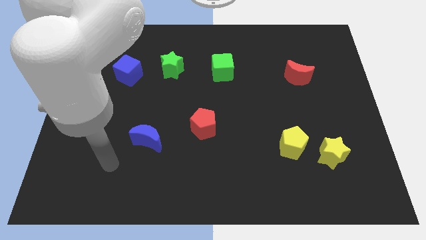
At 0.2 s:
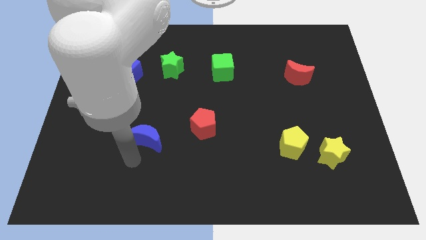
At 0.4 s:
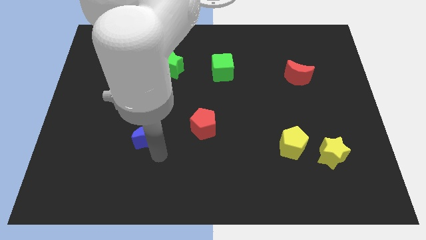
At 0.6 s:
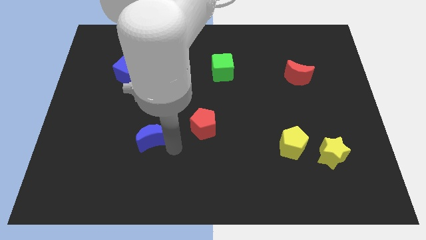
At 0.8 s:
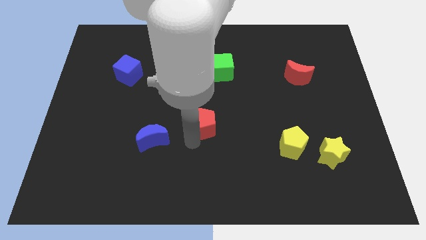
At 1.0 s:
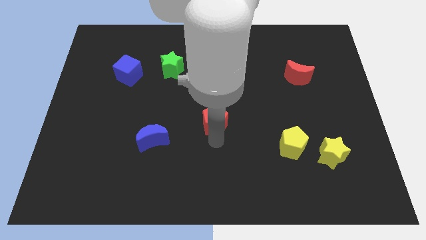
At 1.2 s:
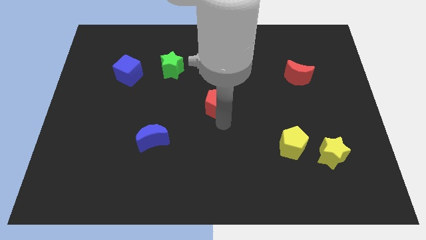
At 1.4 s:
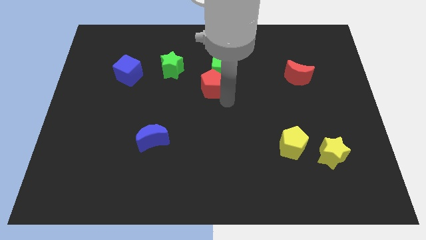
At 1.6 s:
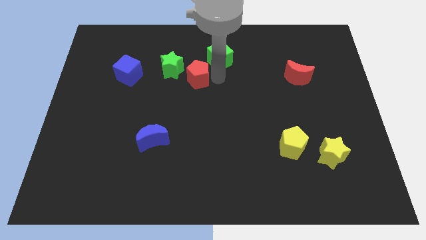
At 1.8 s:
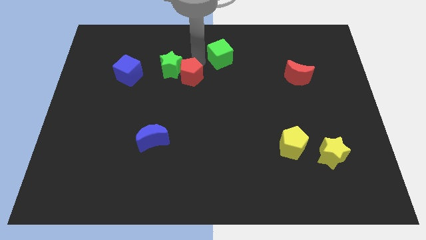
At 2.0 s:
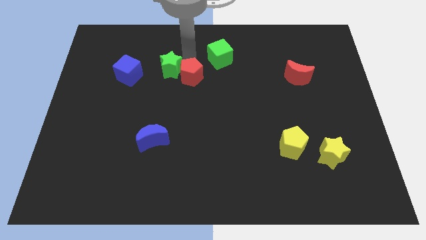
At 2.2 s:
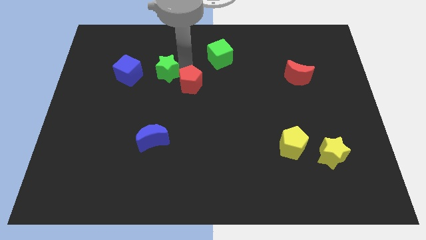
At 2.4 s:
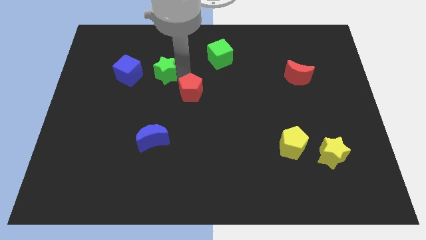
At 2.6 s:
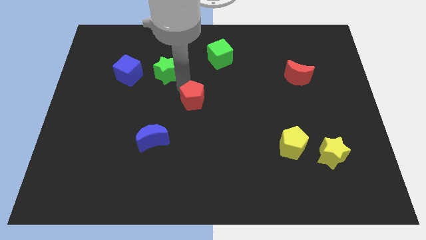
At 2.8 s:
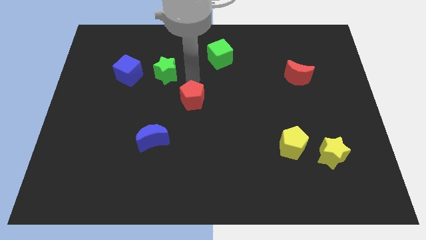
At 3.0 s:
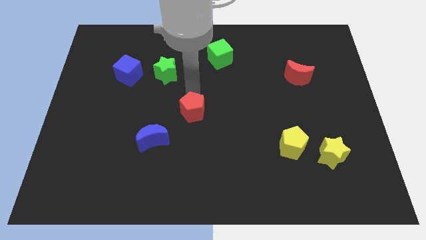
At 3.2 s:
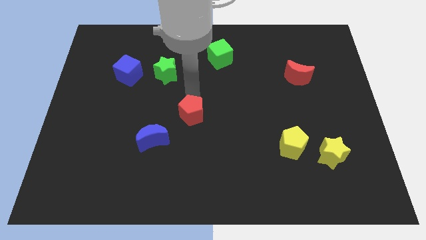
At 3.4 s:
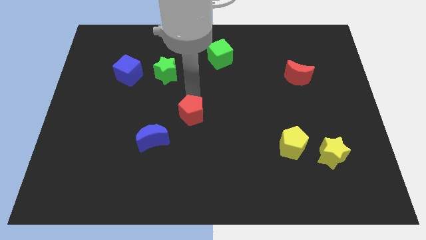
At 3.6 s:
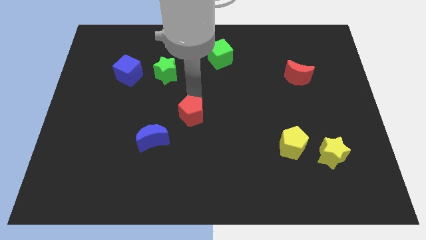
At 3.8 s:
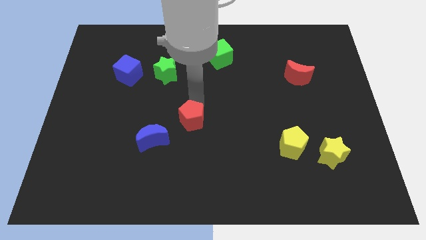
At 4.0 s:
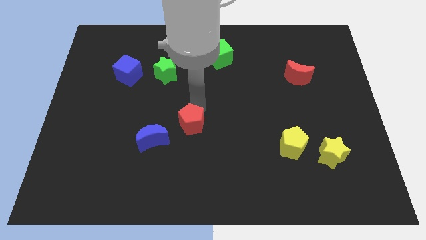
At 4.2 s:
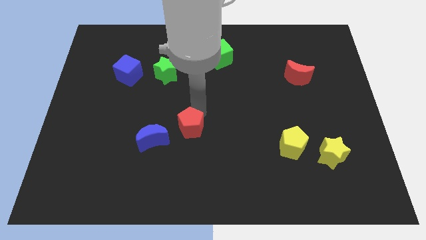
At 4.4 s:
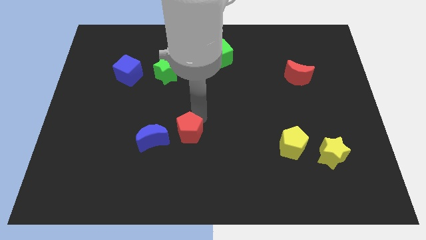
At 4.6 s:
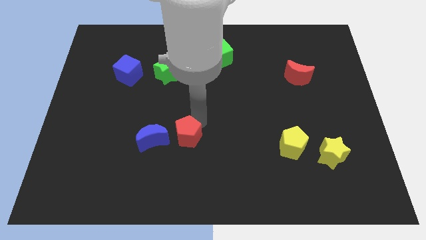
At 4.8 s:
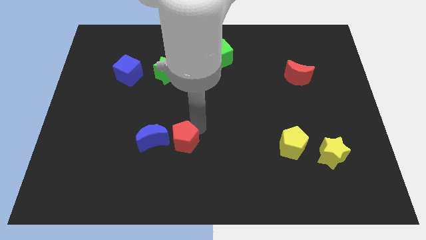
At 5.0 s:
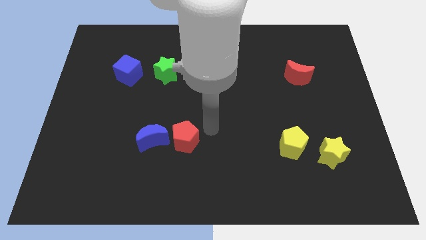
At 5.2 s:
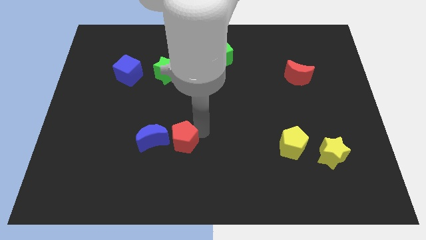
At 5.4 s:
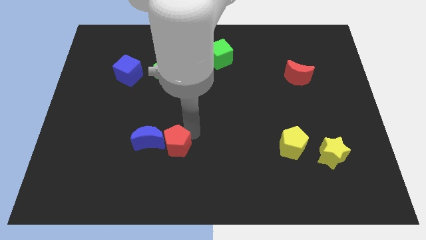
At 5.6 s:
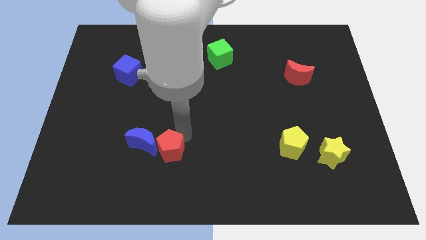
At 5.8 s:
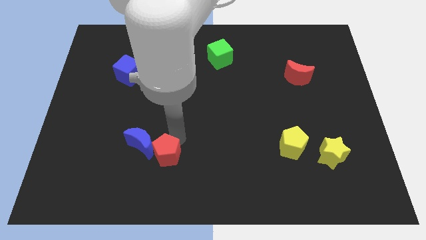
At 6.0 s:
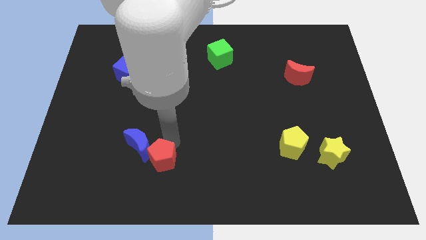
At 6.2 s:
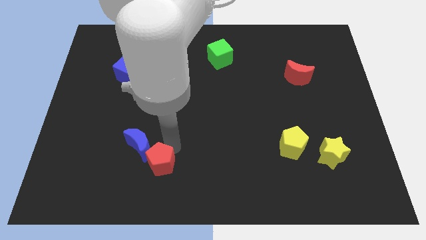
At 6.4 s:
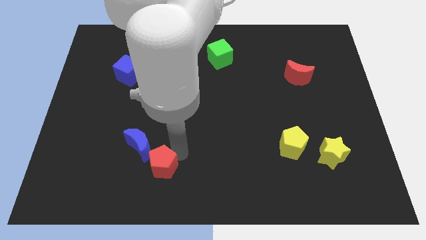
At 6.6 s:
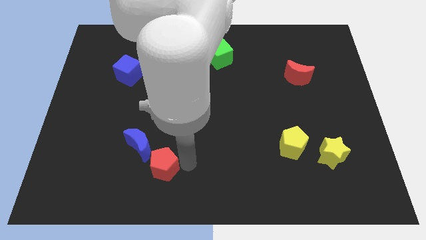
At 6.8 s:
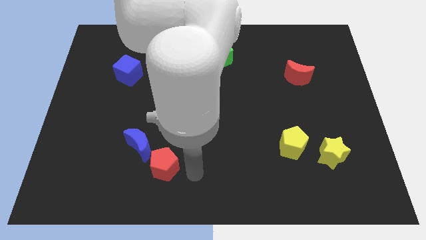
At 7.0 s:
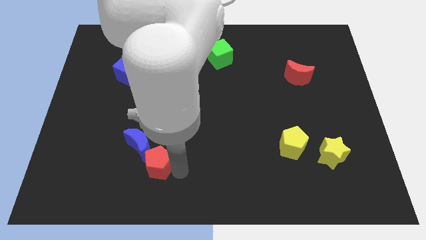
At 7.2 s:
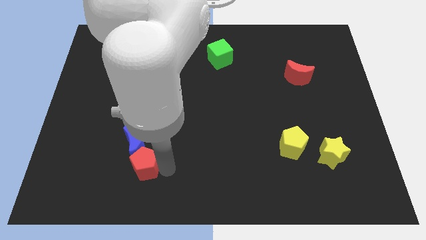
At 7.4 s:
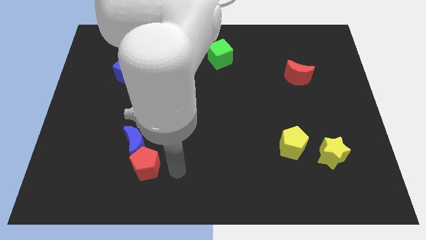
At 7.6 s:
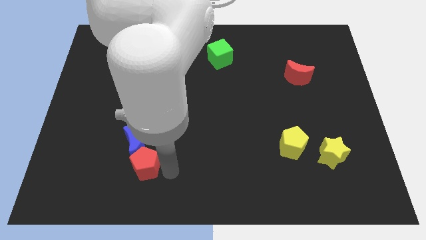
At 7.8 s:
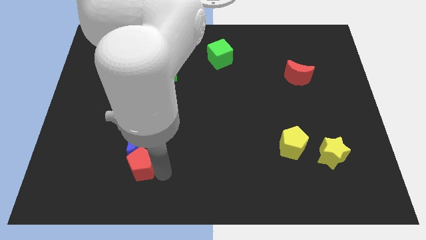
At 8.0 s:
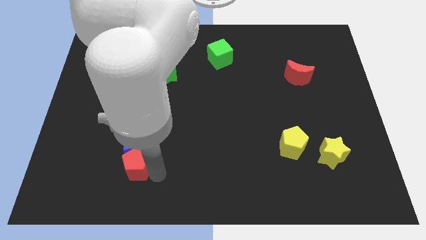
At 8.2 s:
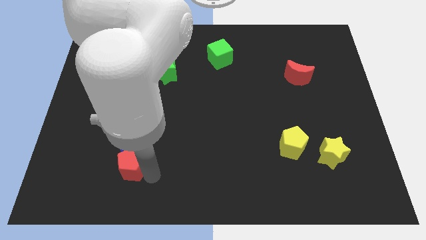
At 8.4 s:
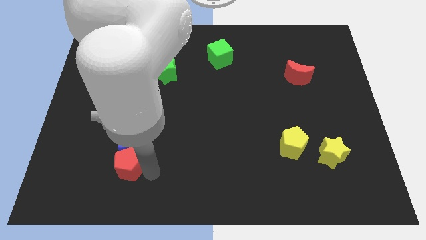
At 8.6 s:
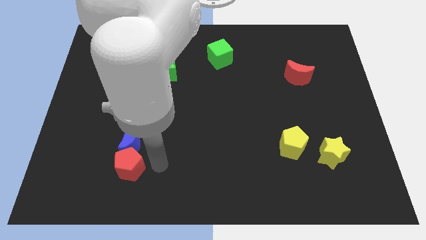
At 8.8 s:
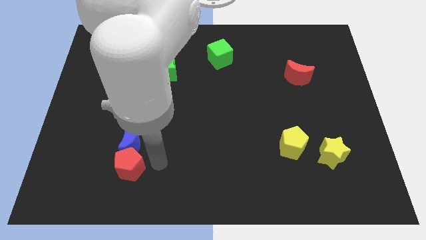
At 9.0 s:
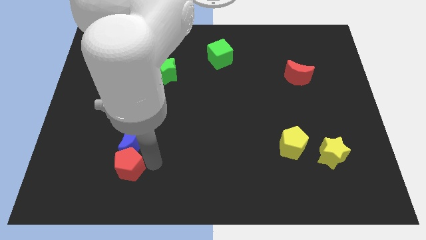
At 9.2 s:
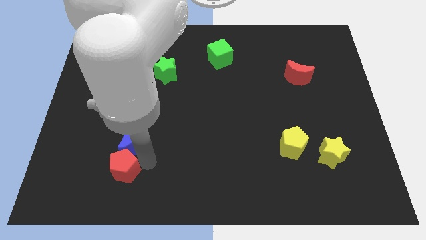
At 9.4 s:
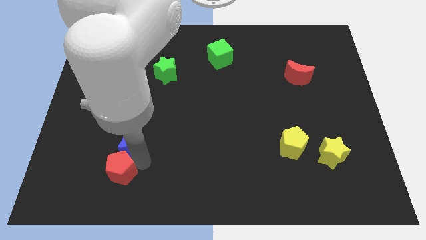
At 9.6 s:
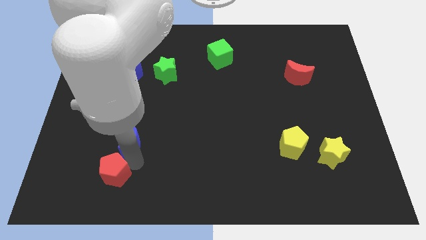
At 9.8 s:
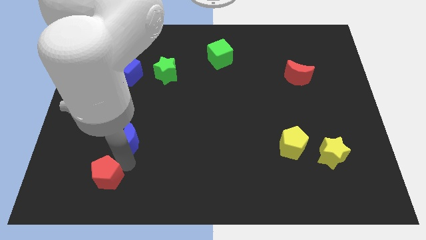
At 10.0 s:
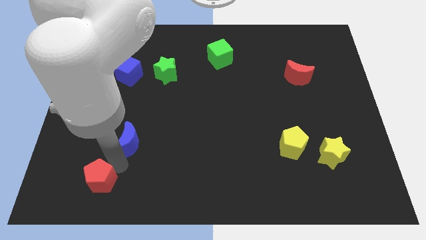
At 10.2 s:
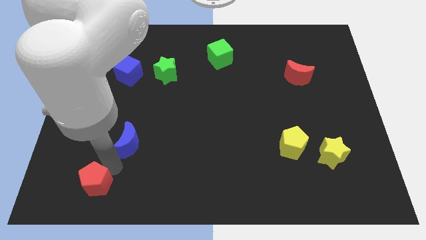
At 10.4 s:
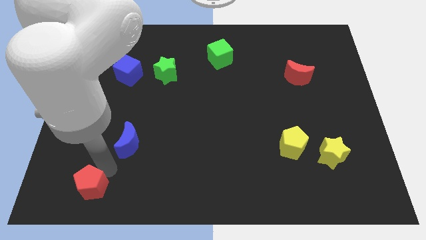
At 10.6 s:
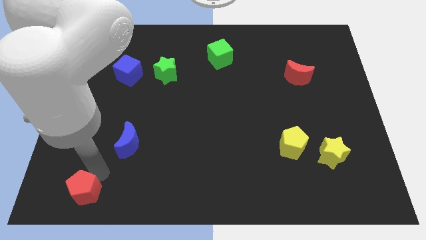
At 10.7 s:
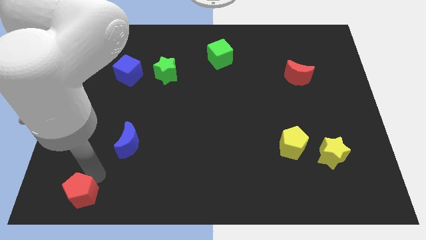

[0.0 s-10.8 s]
put the red pentagon to the bottom left corner

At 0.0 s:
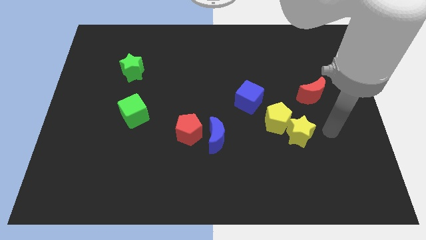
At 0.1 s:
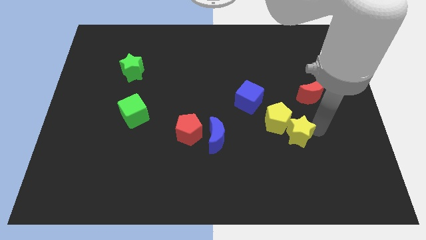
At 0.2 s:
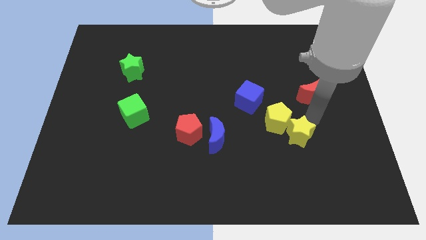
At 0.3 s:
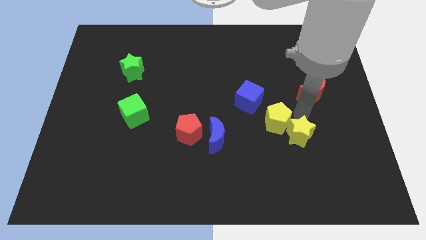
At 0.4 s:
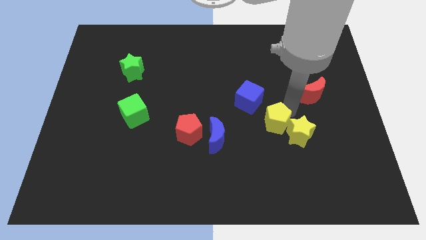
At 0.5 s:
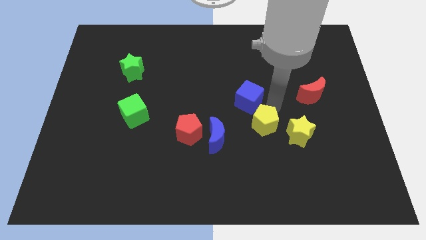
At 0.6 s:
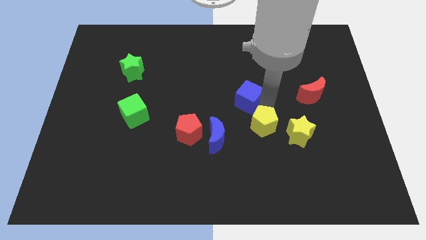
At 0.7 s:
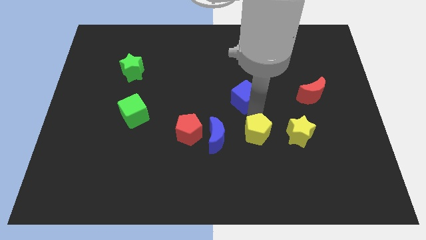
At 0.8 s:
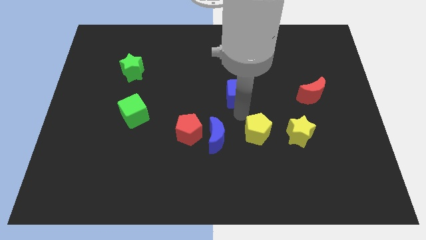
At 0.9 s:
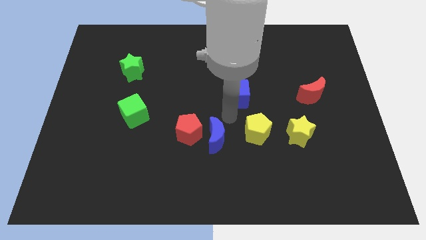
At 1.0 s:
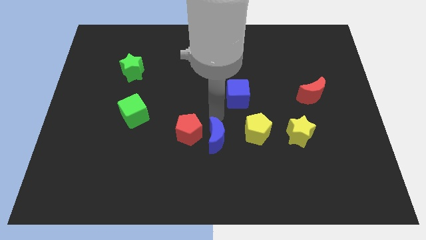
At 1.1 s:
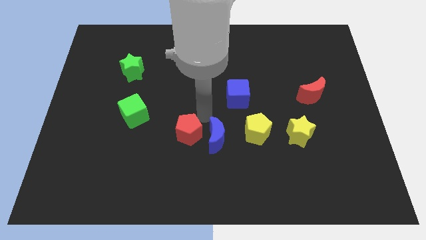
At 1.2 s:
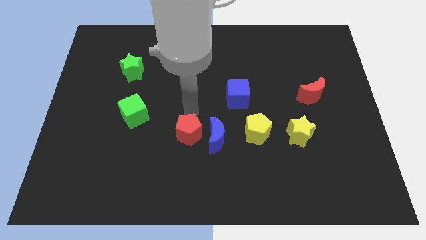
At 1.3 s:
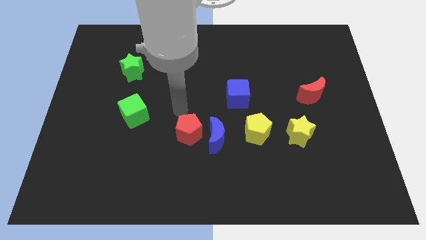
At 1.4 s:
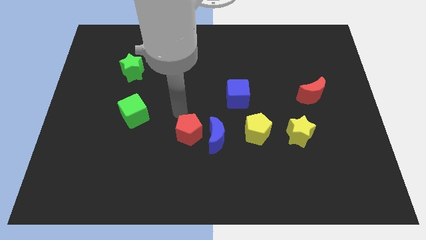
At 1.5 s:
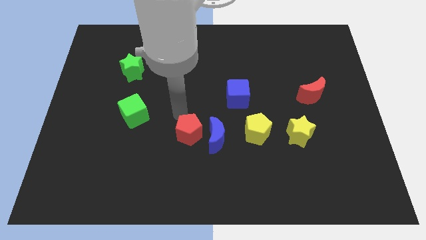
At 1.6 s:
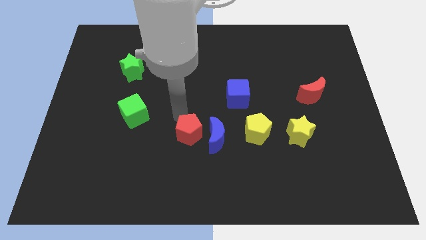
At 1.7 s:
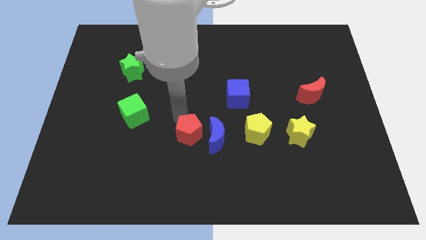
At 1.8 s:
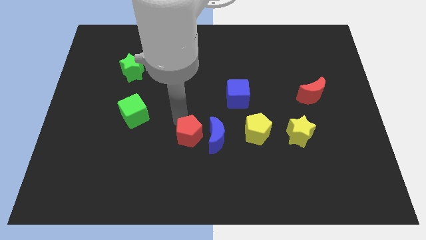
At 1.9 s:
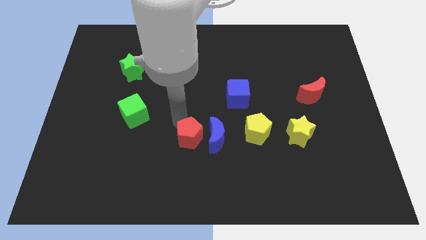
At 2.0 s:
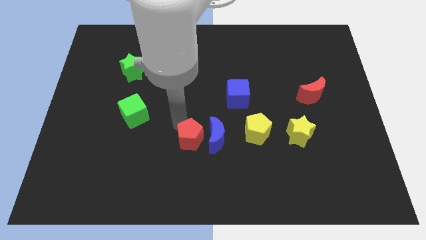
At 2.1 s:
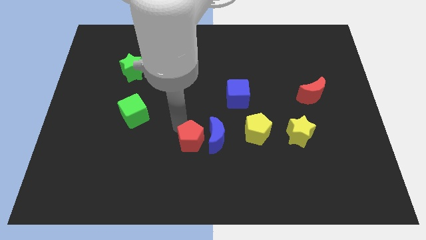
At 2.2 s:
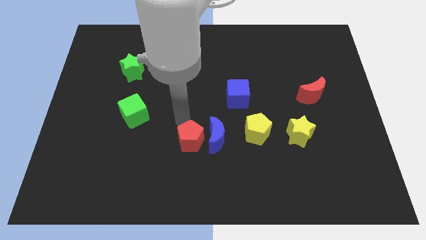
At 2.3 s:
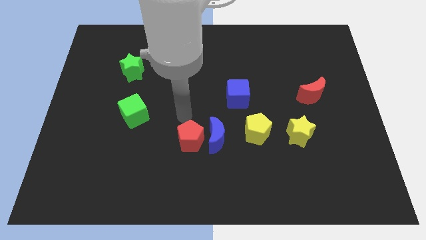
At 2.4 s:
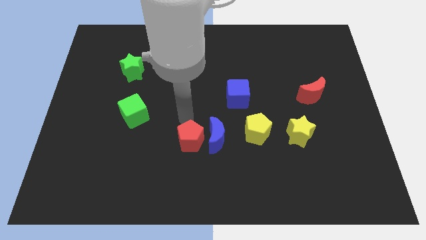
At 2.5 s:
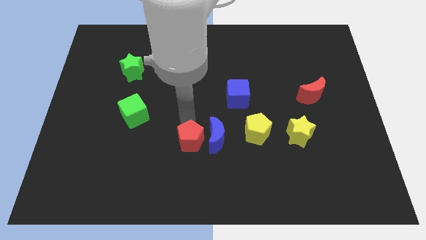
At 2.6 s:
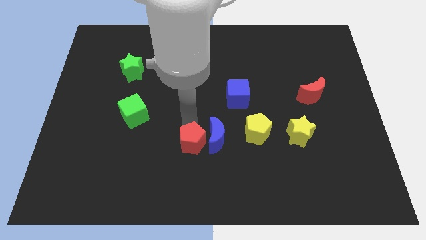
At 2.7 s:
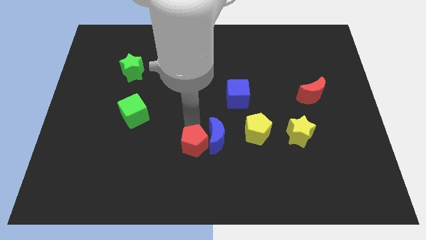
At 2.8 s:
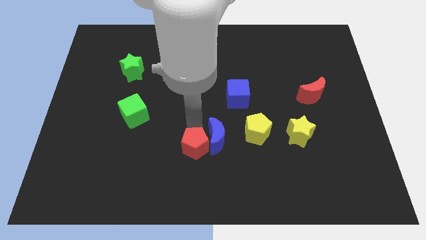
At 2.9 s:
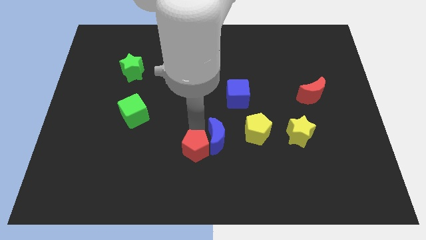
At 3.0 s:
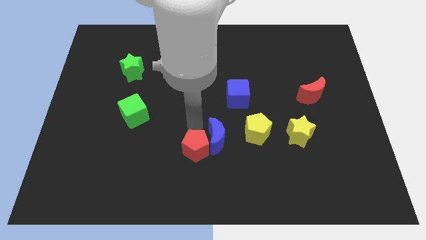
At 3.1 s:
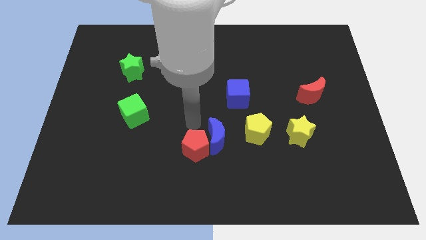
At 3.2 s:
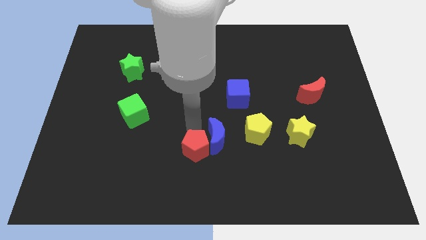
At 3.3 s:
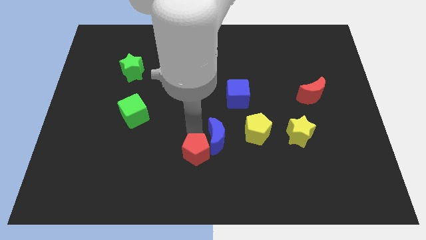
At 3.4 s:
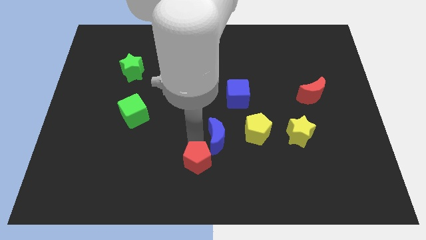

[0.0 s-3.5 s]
push the red pentagon to the bottom side
